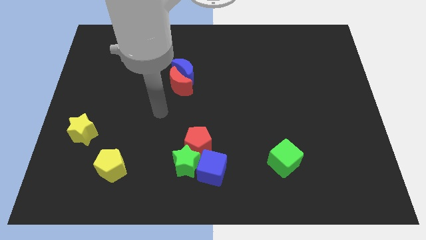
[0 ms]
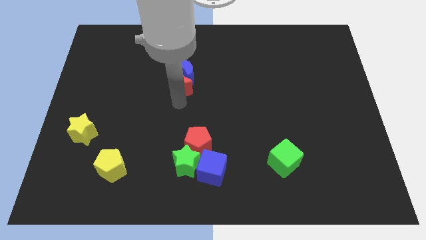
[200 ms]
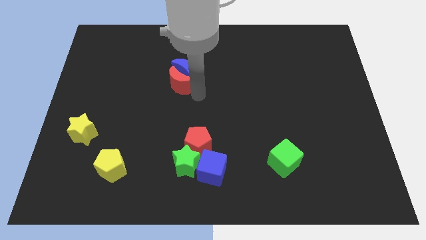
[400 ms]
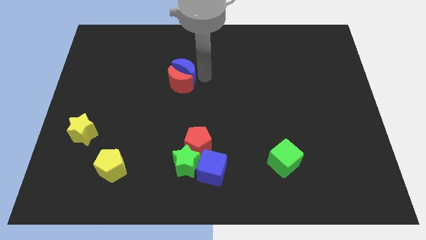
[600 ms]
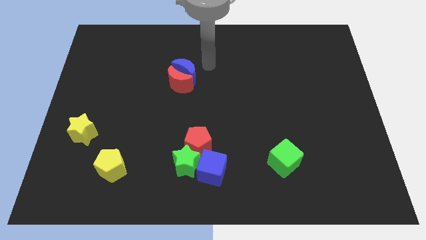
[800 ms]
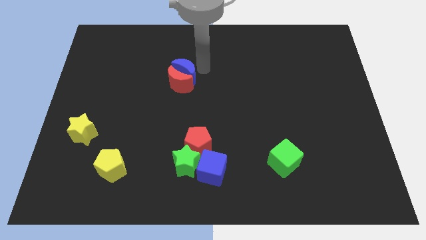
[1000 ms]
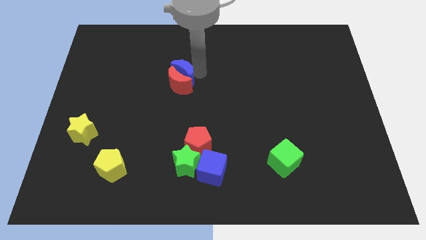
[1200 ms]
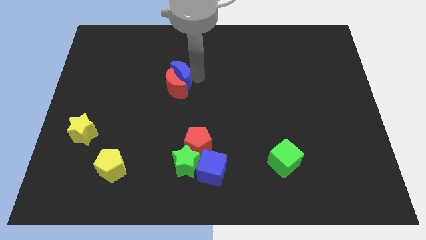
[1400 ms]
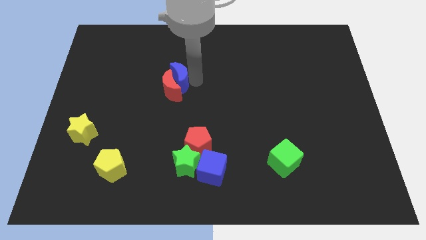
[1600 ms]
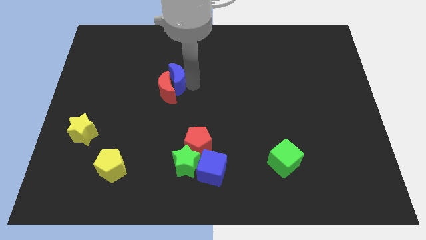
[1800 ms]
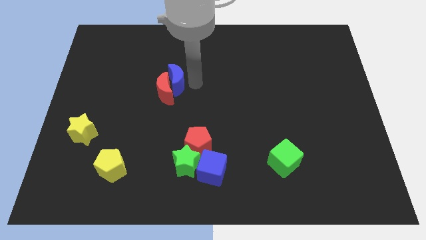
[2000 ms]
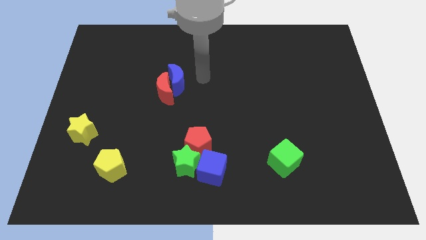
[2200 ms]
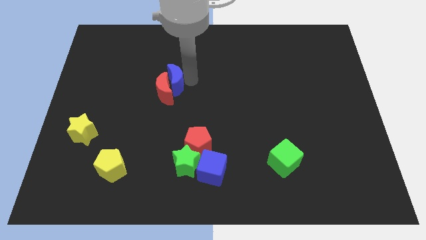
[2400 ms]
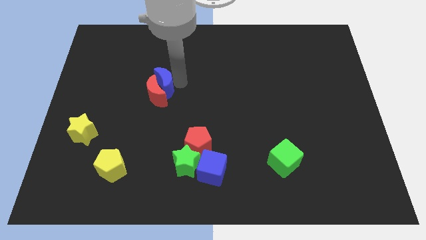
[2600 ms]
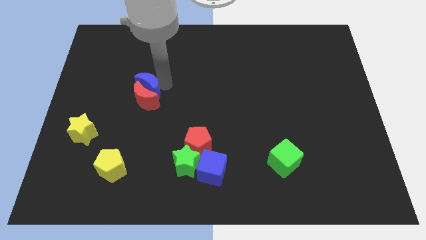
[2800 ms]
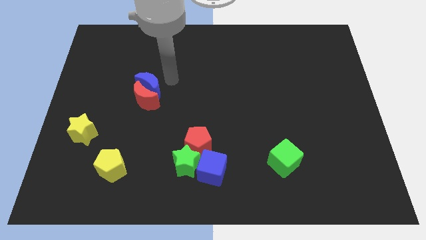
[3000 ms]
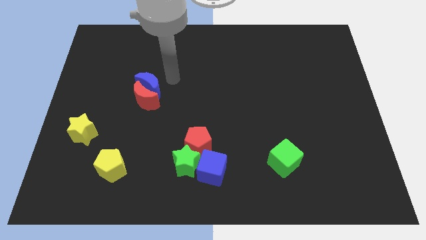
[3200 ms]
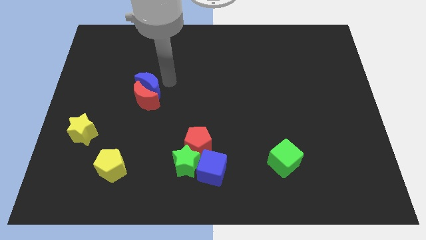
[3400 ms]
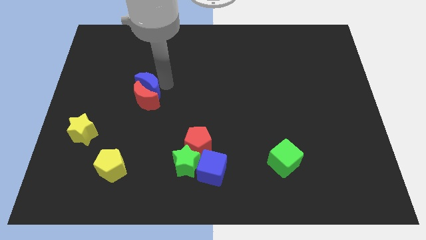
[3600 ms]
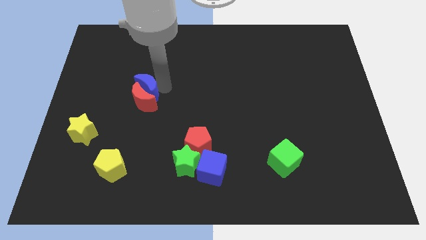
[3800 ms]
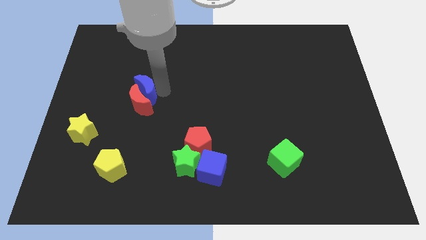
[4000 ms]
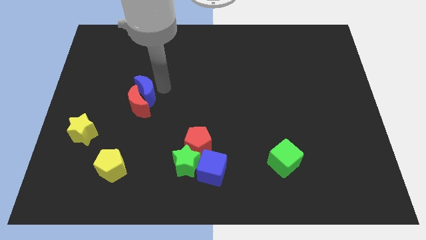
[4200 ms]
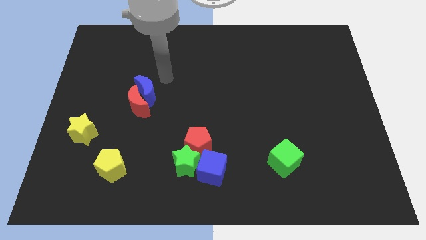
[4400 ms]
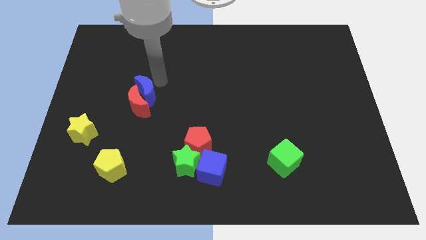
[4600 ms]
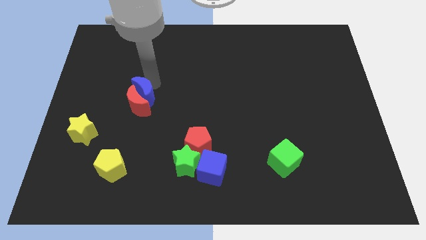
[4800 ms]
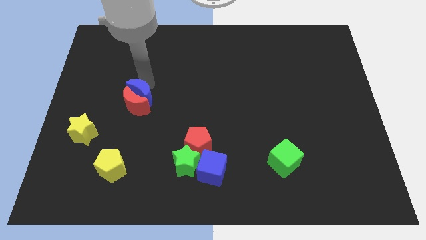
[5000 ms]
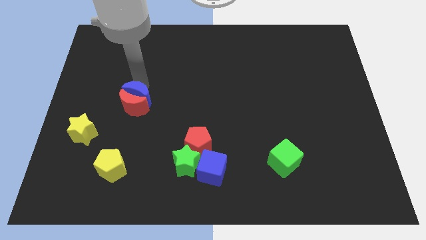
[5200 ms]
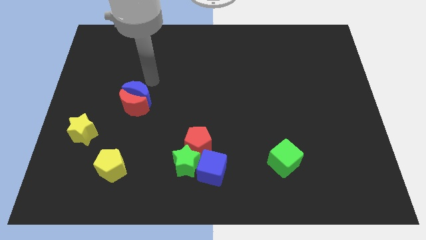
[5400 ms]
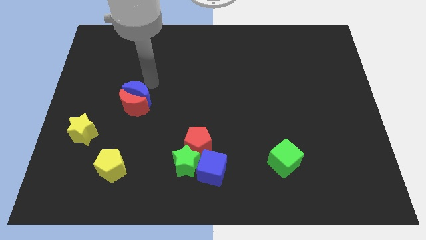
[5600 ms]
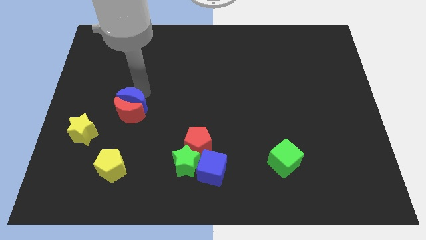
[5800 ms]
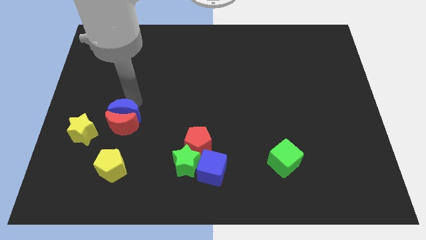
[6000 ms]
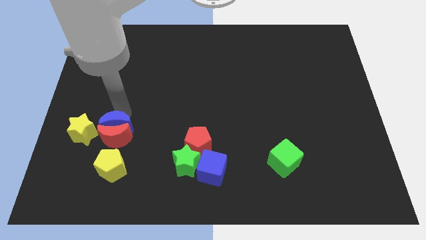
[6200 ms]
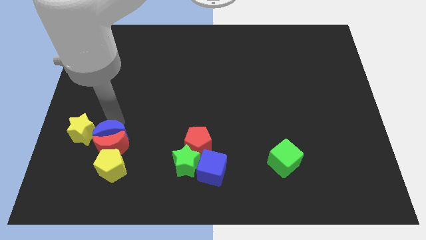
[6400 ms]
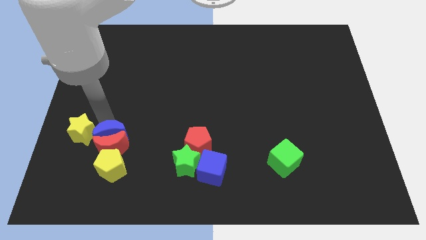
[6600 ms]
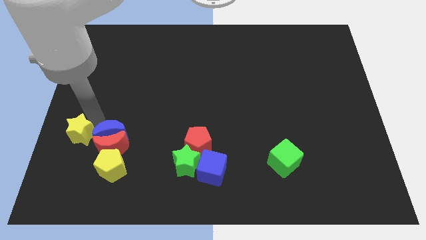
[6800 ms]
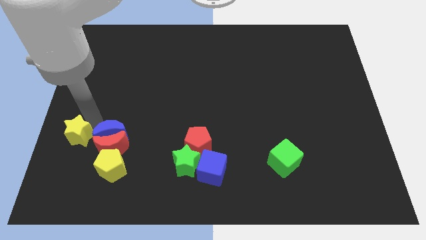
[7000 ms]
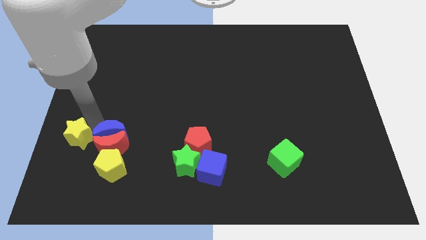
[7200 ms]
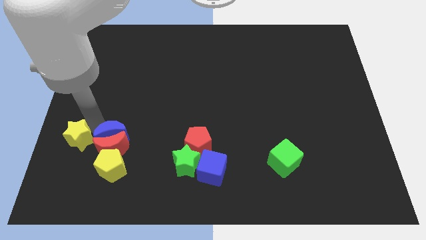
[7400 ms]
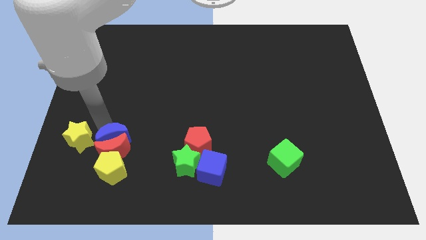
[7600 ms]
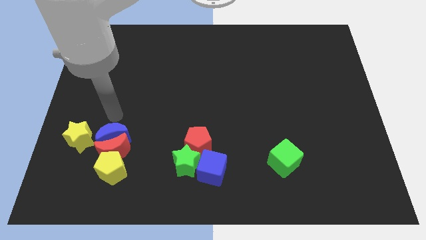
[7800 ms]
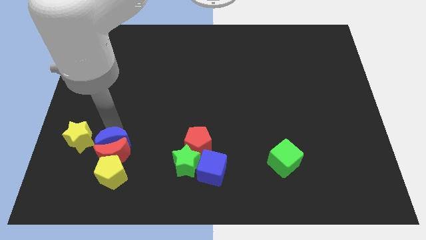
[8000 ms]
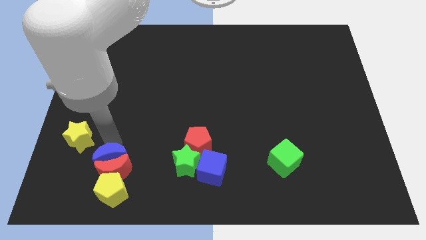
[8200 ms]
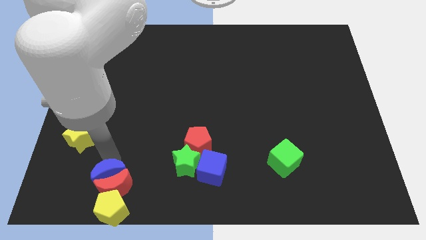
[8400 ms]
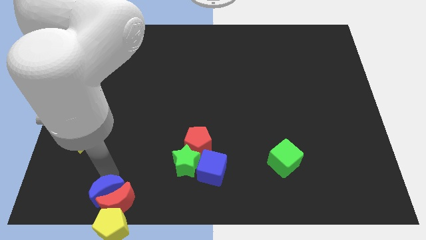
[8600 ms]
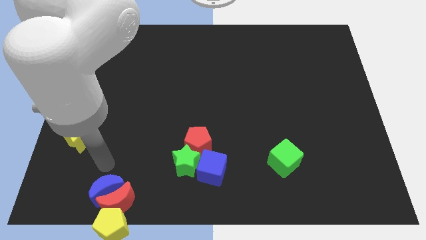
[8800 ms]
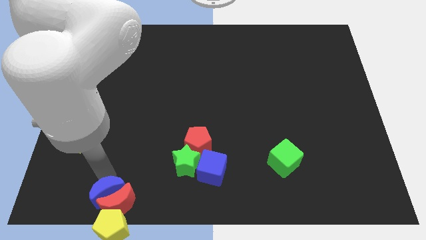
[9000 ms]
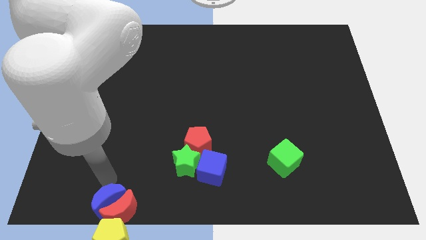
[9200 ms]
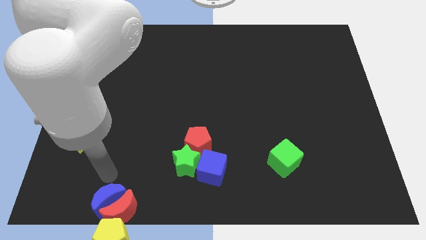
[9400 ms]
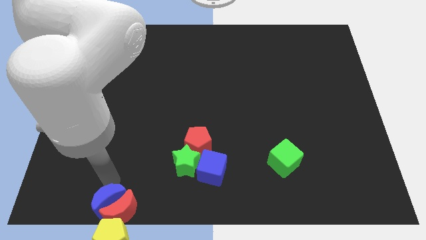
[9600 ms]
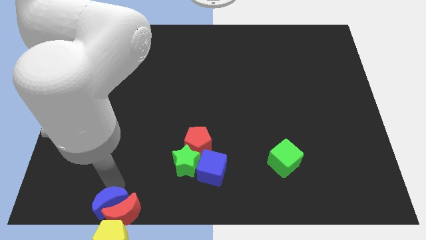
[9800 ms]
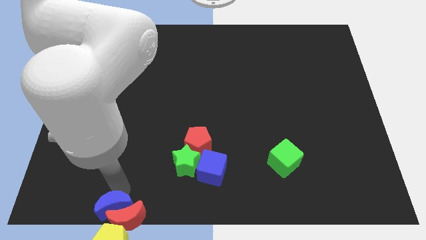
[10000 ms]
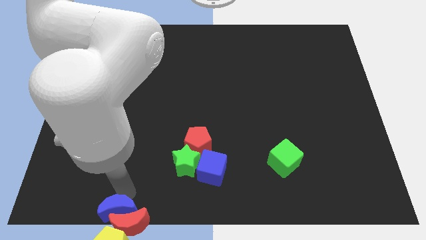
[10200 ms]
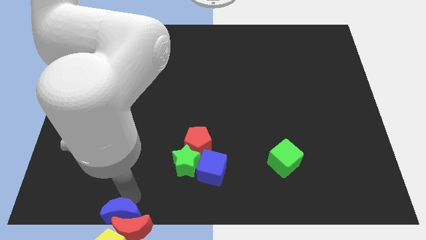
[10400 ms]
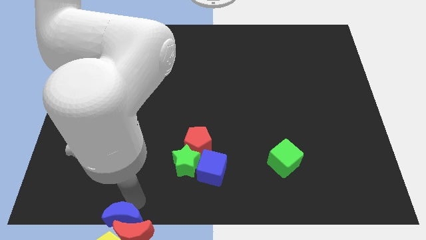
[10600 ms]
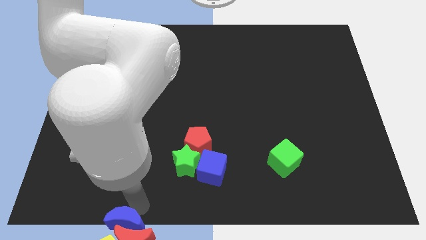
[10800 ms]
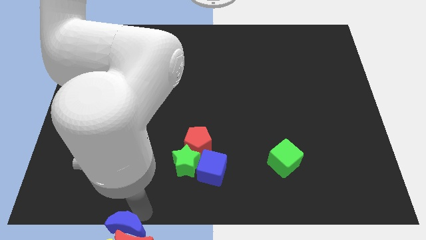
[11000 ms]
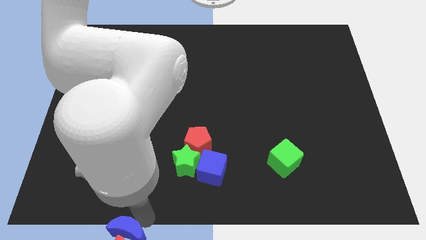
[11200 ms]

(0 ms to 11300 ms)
move the blue moon towards the yellow pentagon
